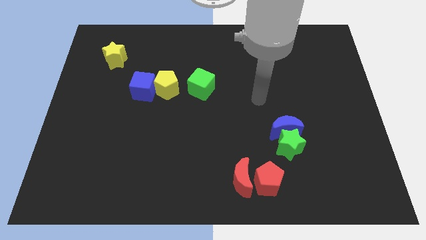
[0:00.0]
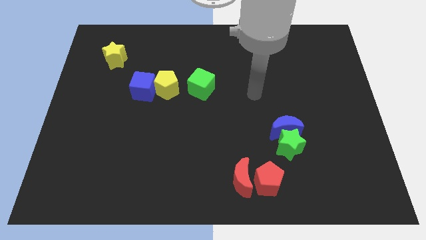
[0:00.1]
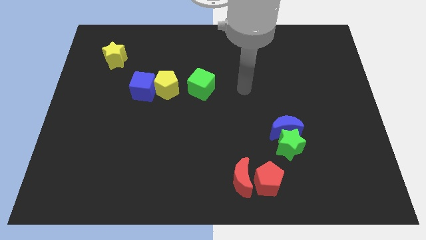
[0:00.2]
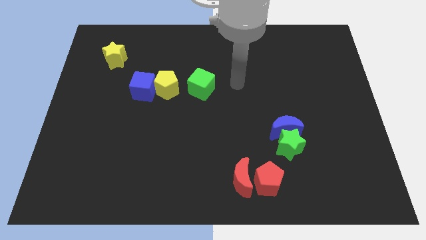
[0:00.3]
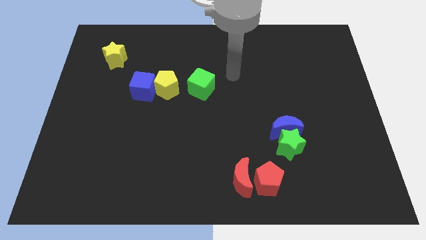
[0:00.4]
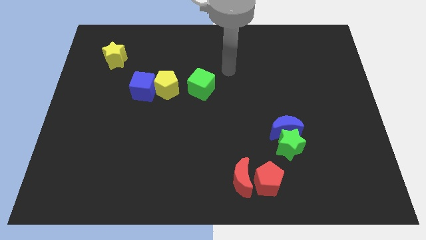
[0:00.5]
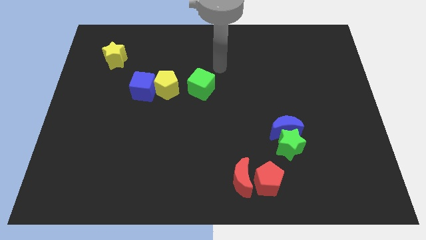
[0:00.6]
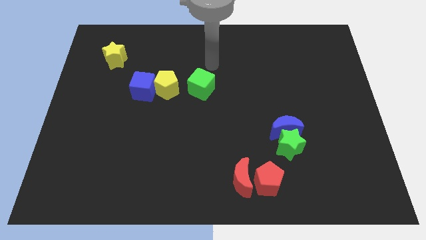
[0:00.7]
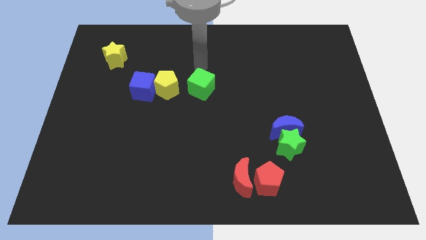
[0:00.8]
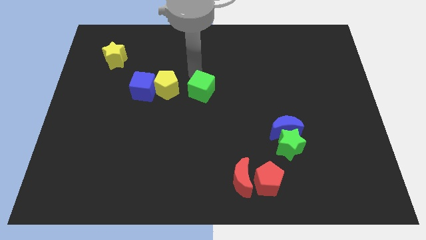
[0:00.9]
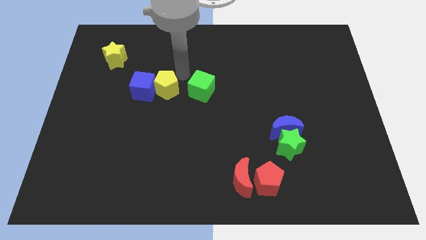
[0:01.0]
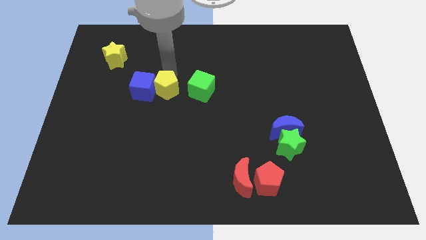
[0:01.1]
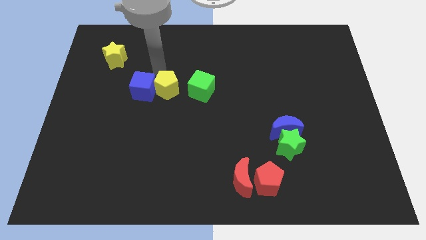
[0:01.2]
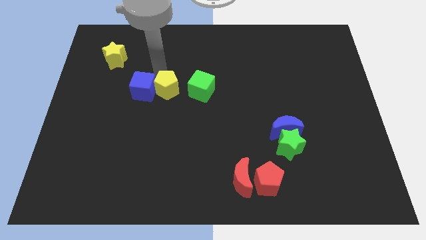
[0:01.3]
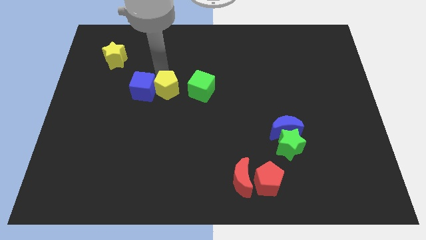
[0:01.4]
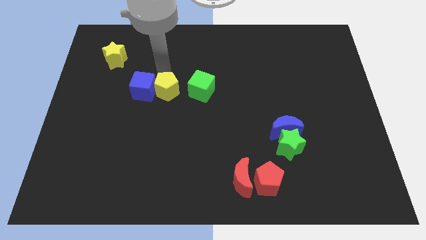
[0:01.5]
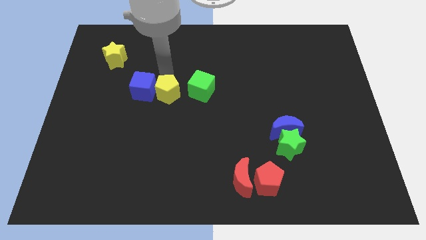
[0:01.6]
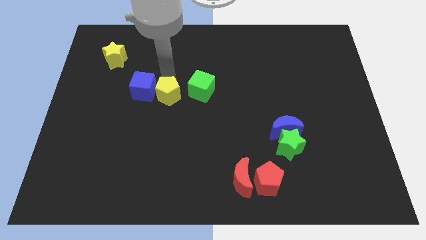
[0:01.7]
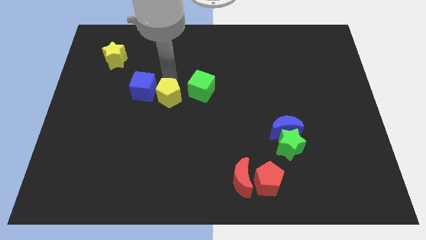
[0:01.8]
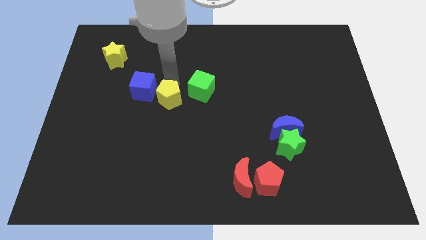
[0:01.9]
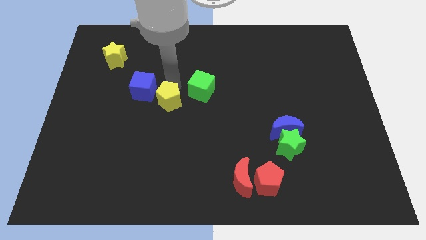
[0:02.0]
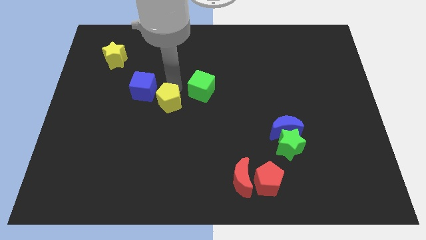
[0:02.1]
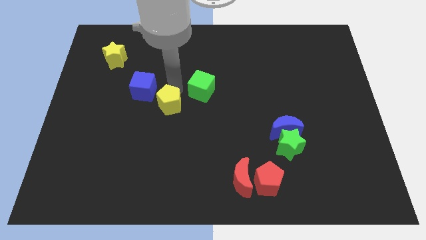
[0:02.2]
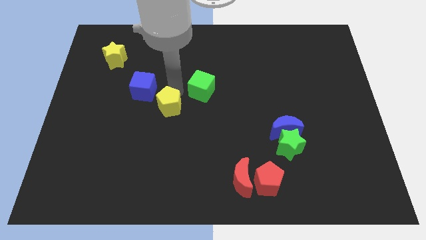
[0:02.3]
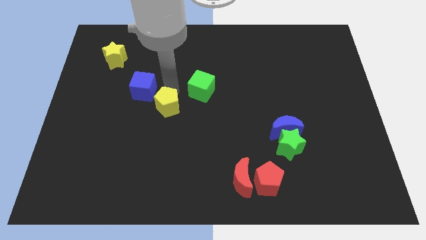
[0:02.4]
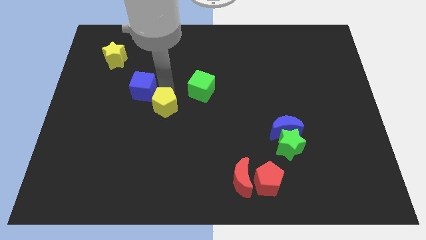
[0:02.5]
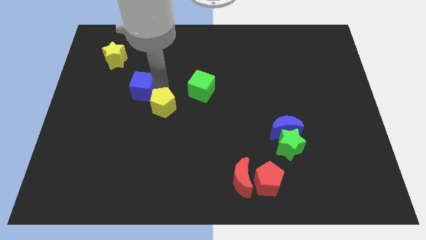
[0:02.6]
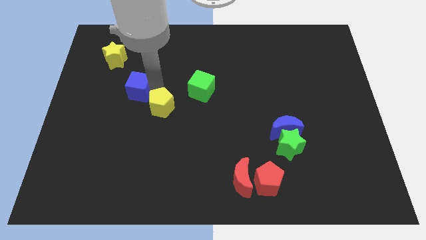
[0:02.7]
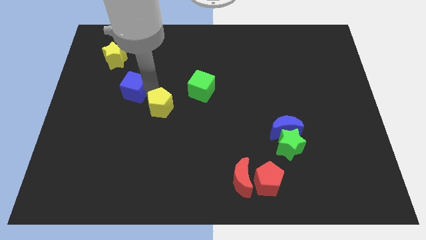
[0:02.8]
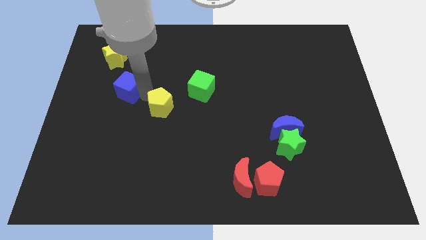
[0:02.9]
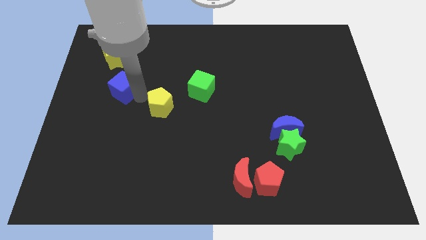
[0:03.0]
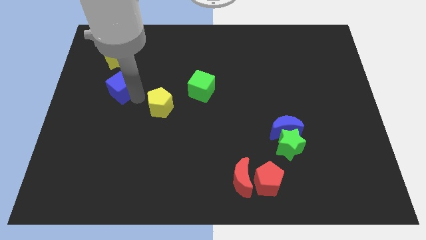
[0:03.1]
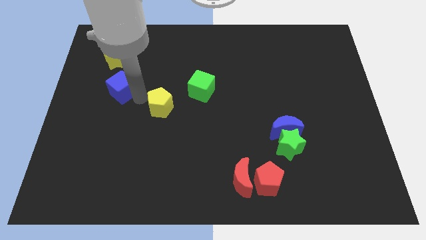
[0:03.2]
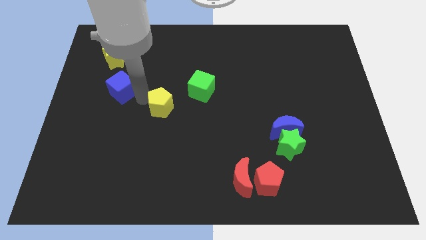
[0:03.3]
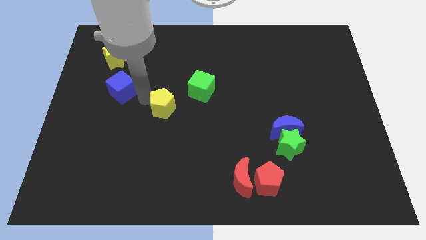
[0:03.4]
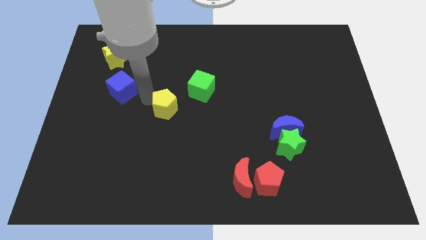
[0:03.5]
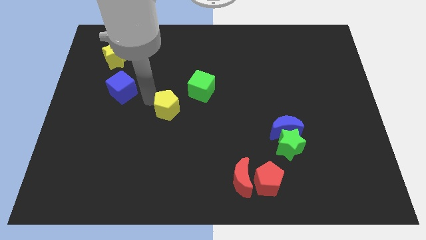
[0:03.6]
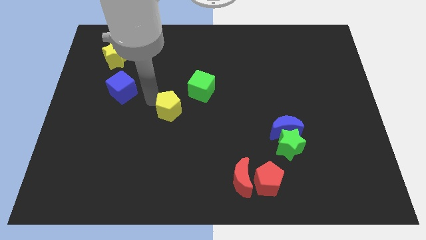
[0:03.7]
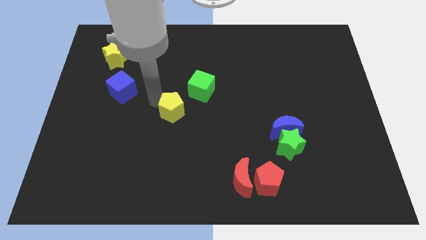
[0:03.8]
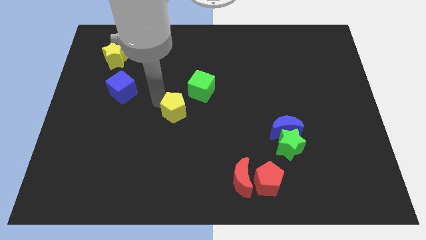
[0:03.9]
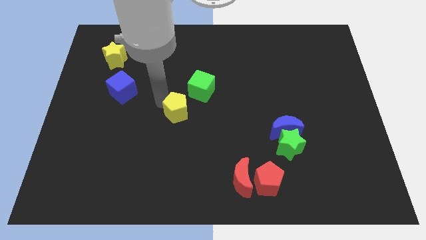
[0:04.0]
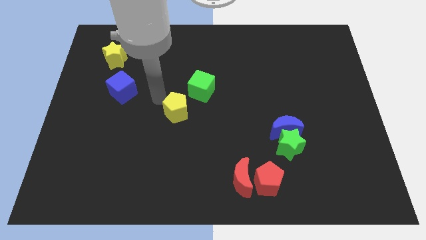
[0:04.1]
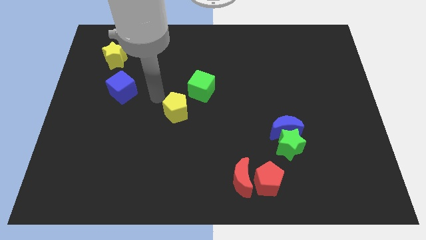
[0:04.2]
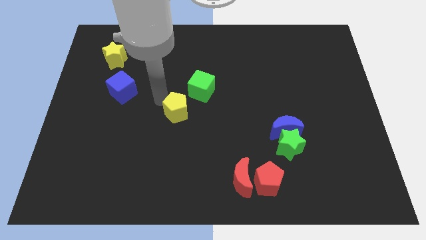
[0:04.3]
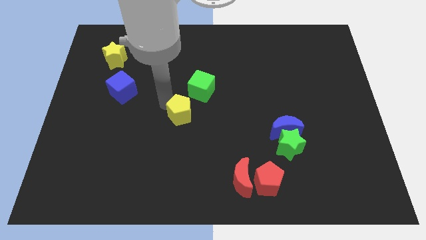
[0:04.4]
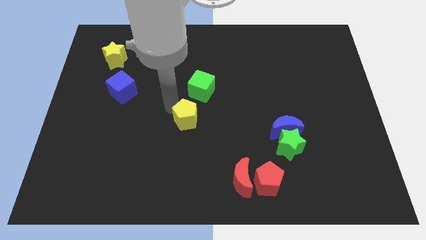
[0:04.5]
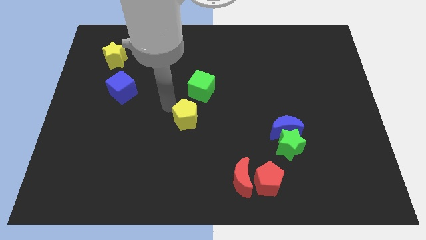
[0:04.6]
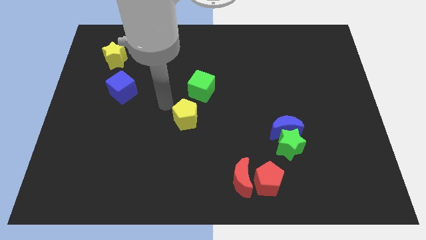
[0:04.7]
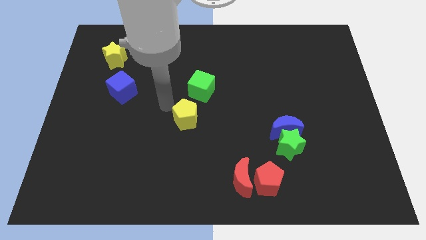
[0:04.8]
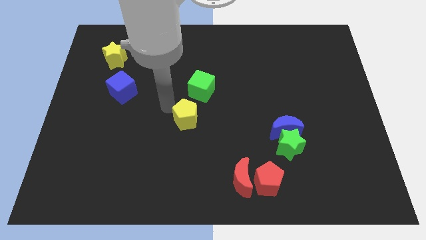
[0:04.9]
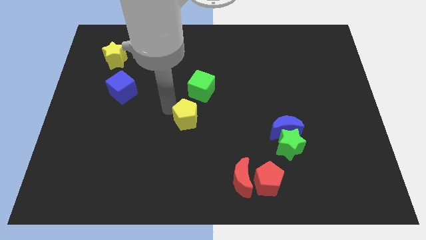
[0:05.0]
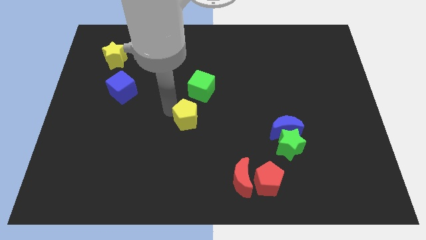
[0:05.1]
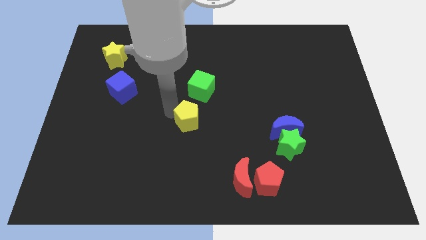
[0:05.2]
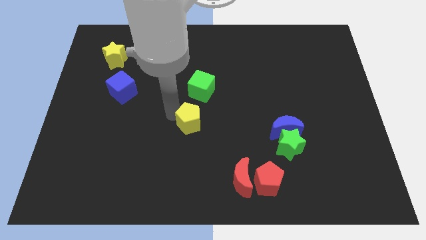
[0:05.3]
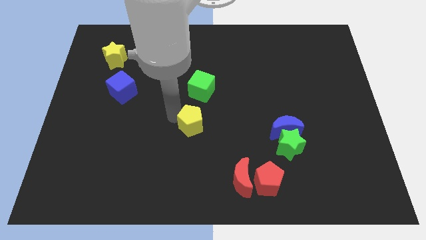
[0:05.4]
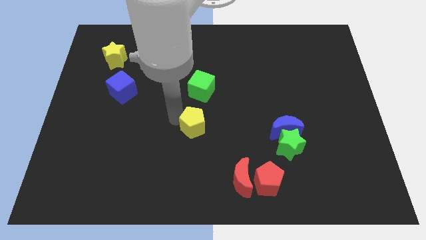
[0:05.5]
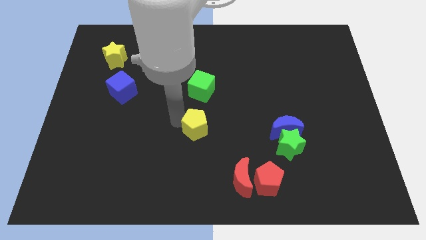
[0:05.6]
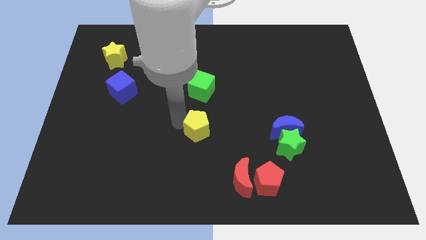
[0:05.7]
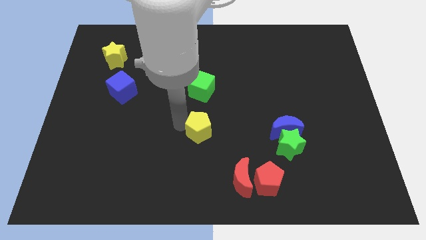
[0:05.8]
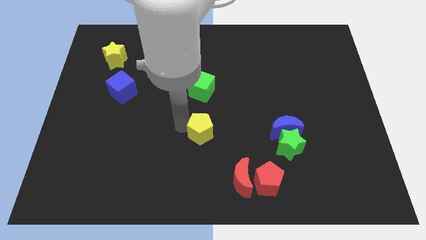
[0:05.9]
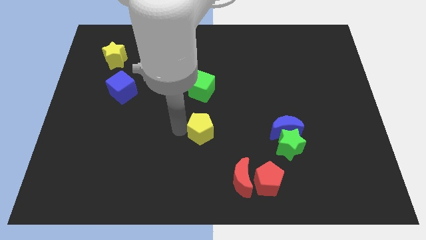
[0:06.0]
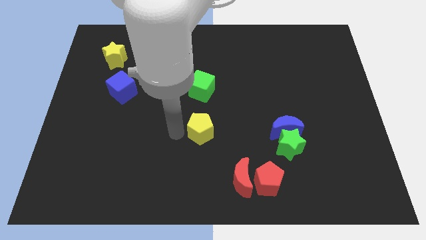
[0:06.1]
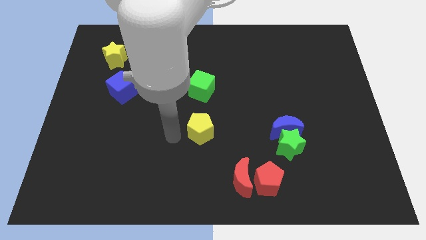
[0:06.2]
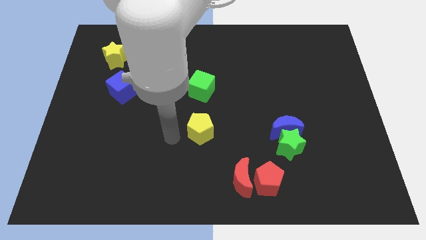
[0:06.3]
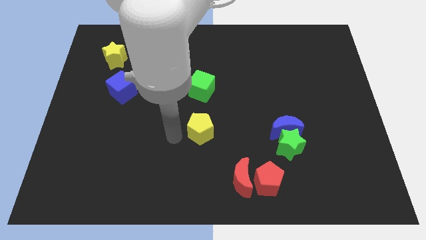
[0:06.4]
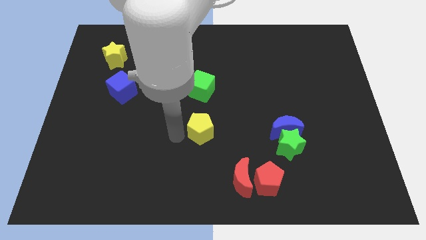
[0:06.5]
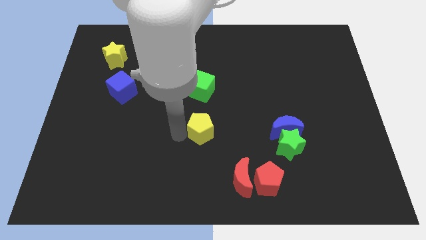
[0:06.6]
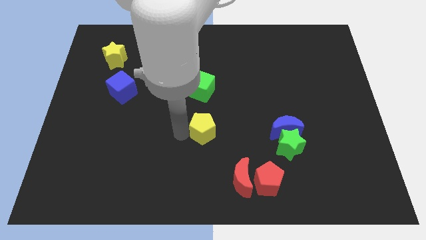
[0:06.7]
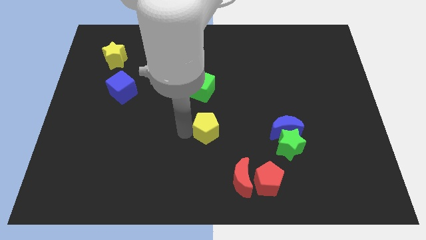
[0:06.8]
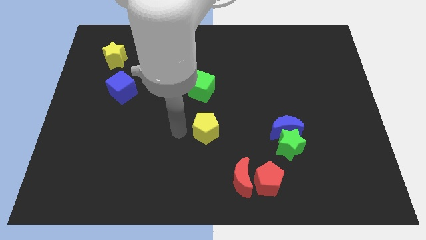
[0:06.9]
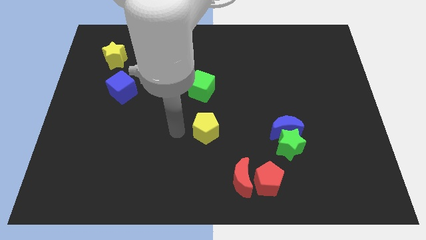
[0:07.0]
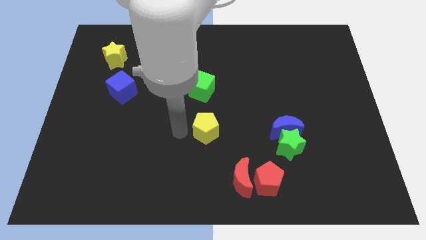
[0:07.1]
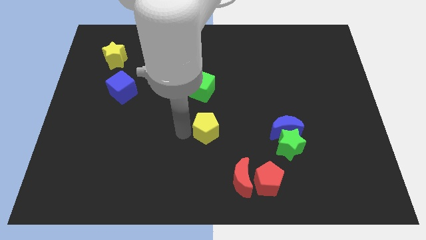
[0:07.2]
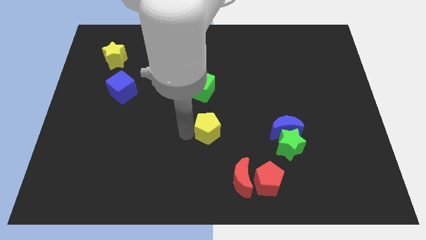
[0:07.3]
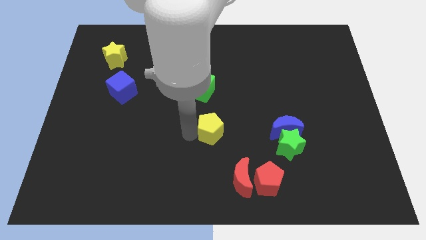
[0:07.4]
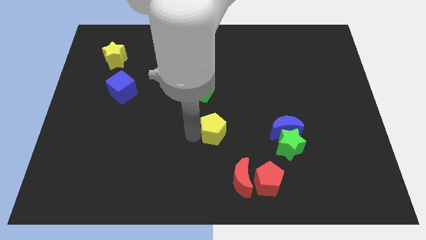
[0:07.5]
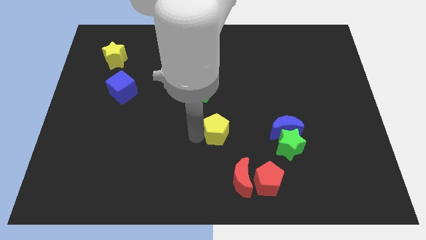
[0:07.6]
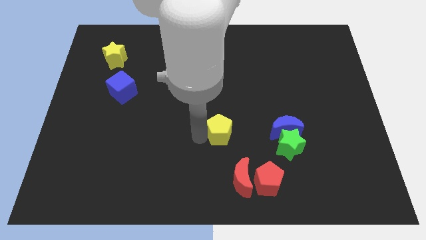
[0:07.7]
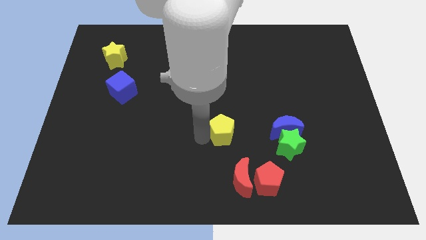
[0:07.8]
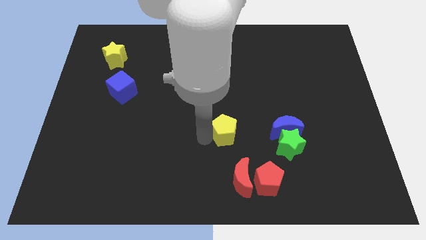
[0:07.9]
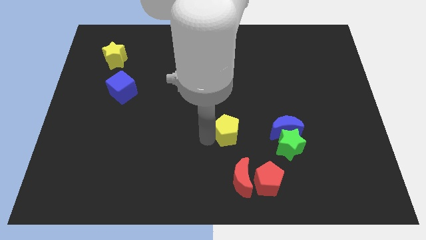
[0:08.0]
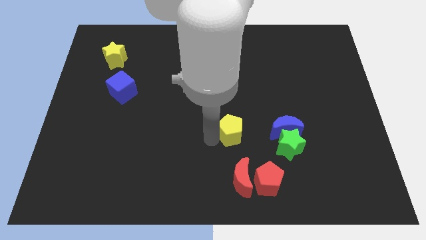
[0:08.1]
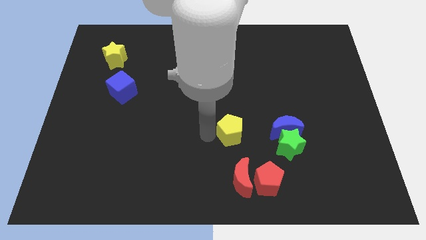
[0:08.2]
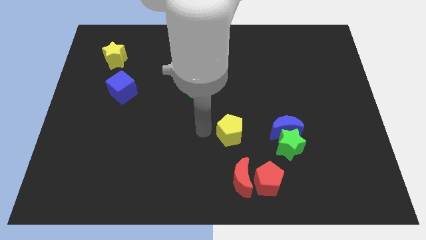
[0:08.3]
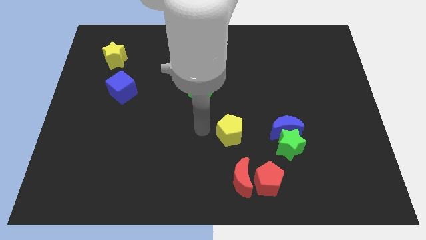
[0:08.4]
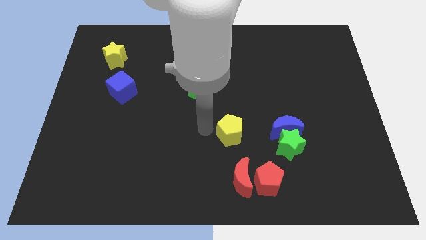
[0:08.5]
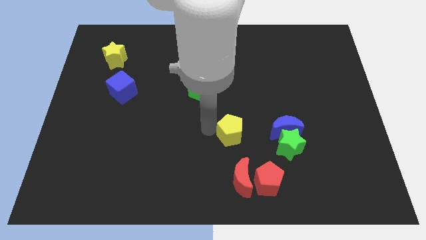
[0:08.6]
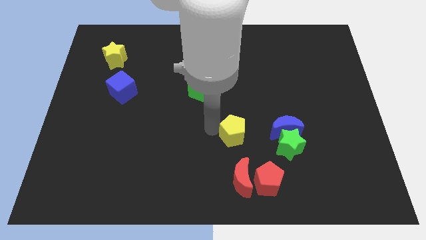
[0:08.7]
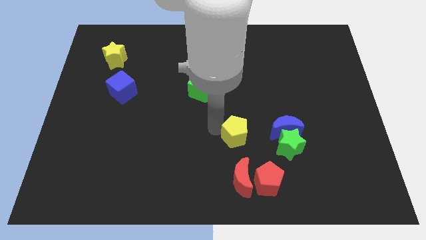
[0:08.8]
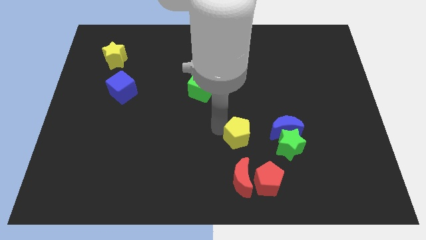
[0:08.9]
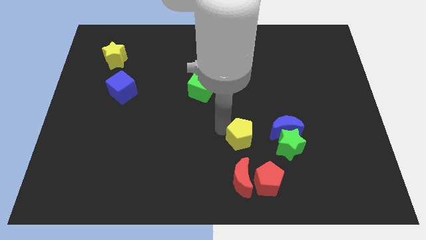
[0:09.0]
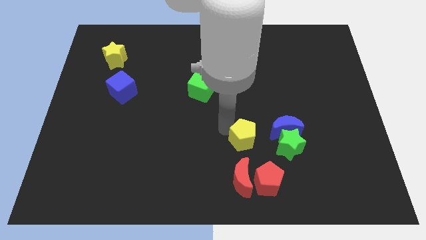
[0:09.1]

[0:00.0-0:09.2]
slide the yellow pentagon to the top side of the red pentagon
